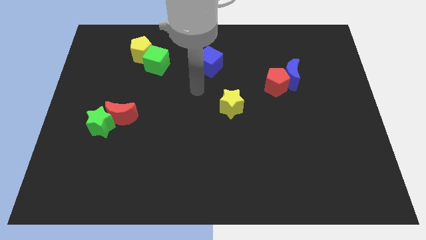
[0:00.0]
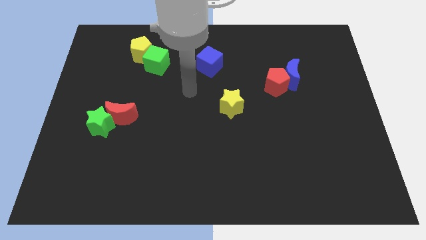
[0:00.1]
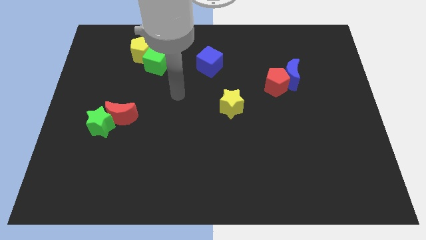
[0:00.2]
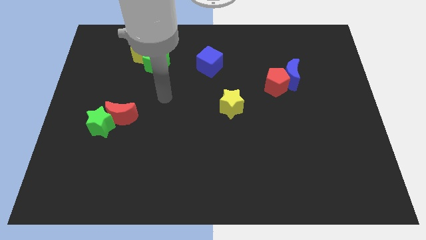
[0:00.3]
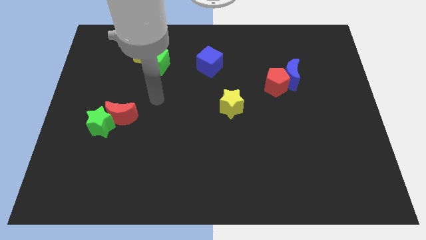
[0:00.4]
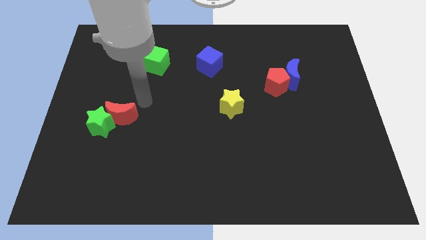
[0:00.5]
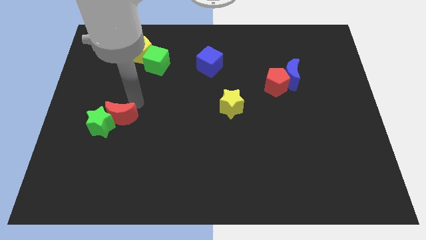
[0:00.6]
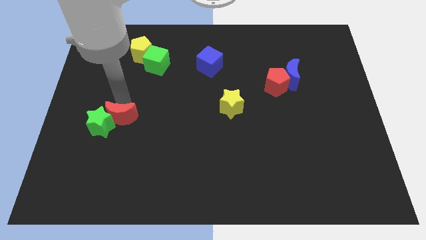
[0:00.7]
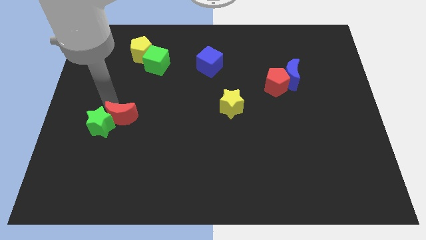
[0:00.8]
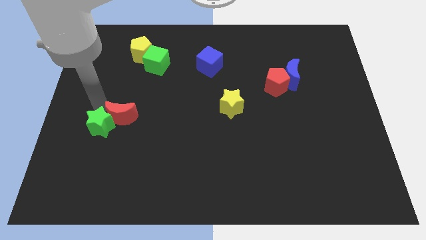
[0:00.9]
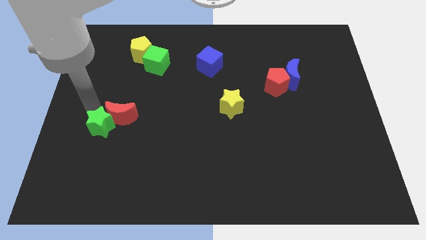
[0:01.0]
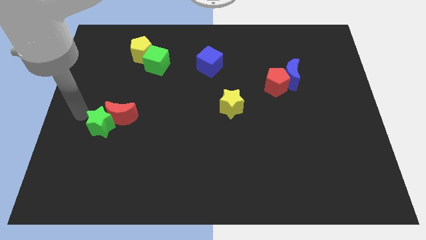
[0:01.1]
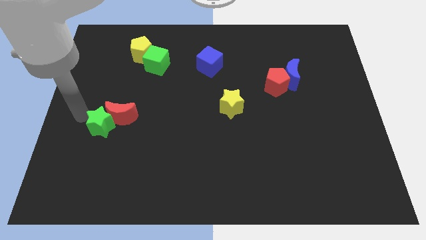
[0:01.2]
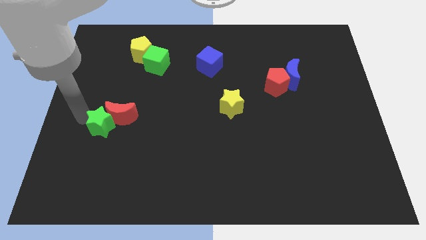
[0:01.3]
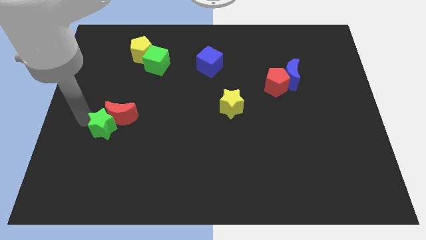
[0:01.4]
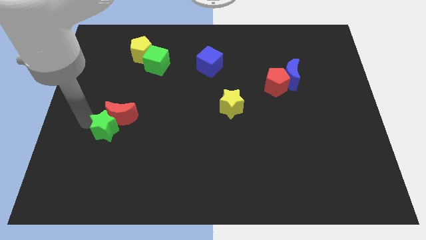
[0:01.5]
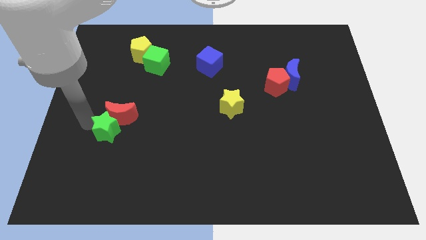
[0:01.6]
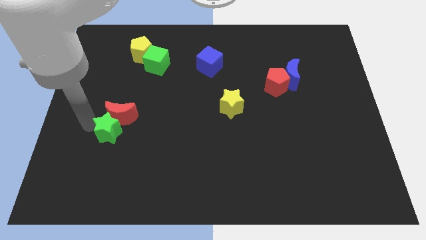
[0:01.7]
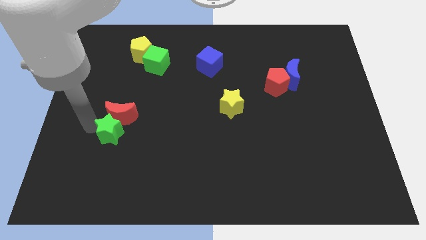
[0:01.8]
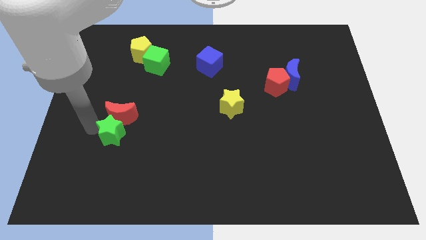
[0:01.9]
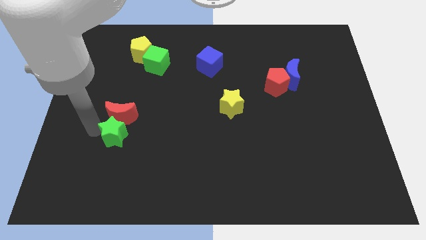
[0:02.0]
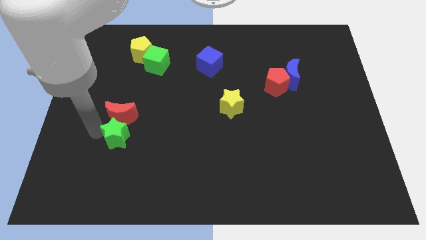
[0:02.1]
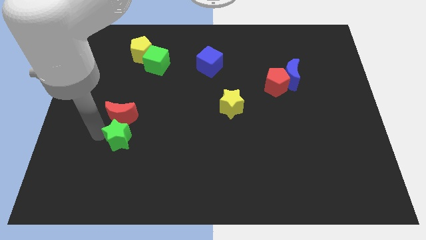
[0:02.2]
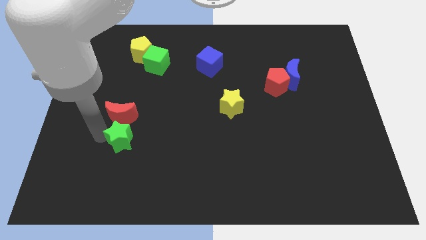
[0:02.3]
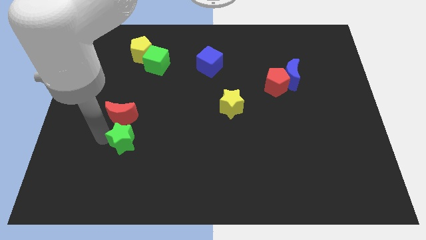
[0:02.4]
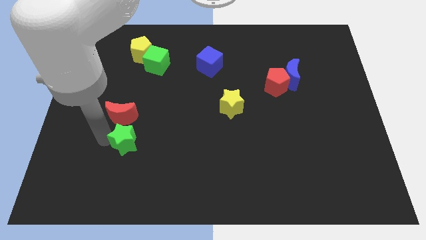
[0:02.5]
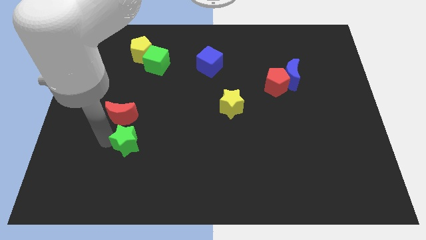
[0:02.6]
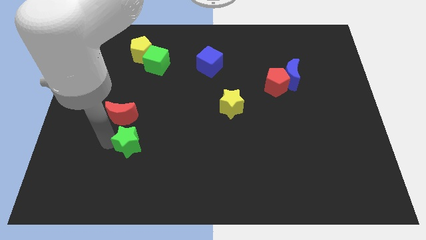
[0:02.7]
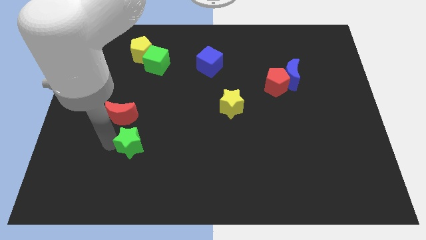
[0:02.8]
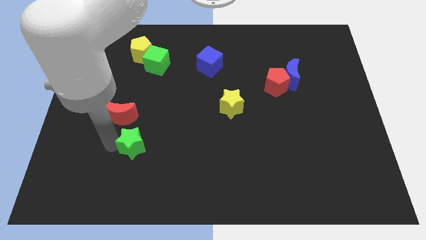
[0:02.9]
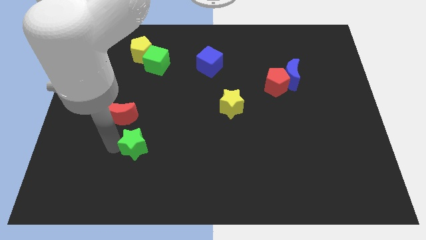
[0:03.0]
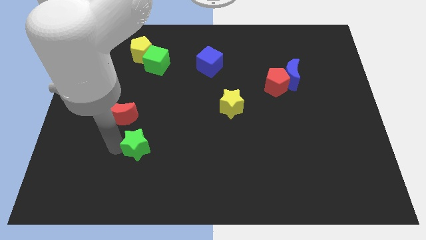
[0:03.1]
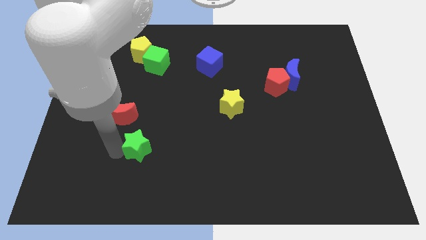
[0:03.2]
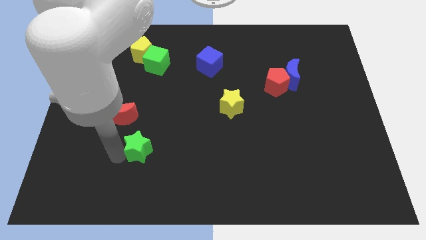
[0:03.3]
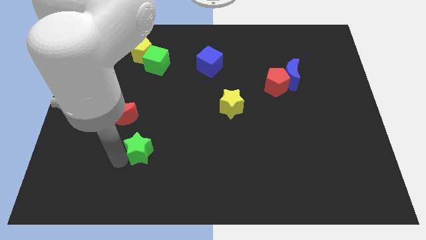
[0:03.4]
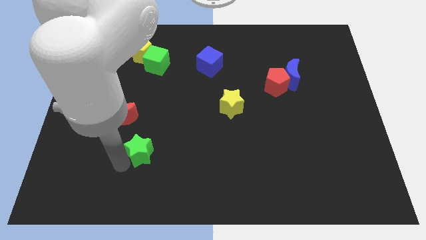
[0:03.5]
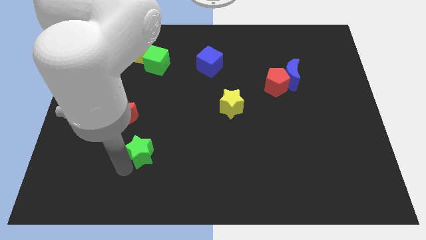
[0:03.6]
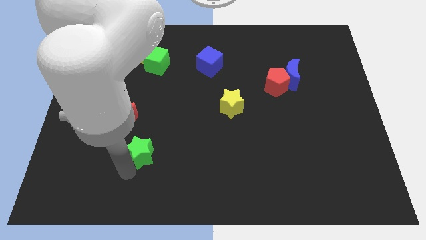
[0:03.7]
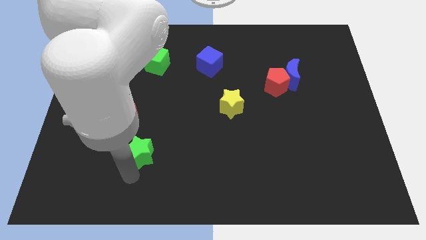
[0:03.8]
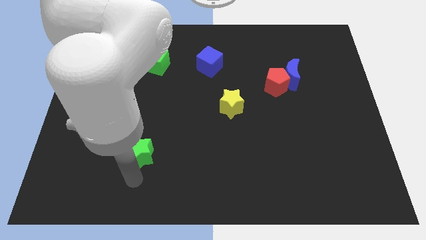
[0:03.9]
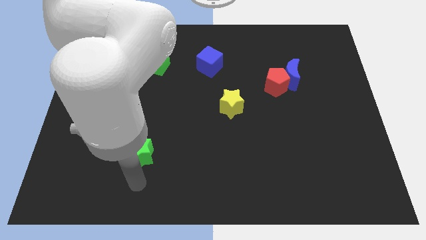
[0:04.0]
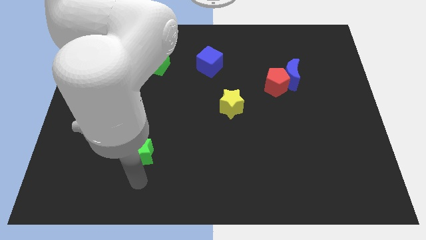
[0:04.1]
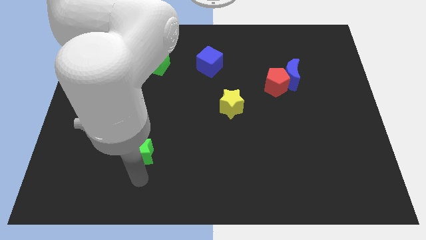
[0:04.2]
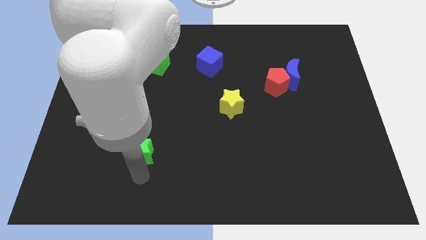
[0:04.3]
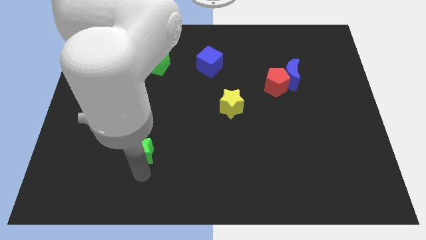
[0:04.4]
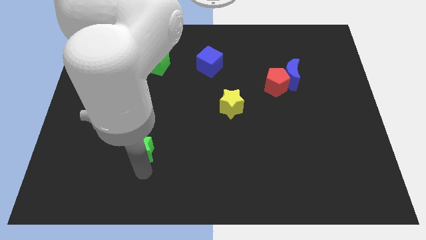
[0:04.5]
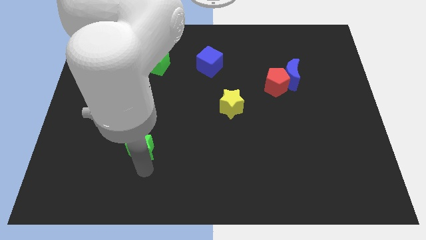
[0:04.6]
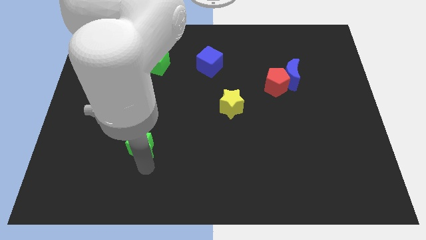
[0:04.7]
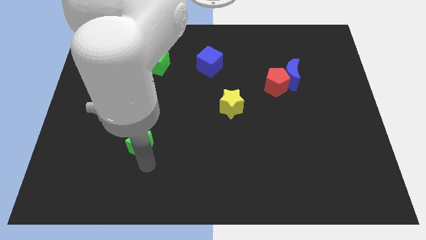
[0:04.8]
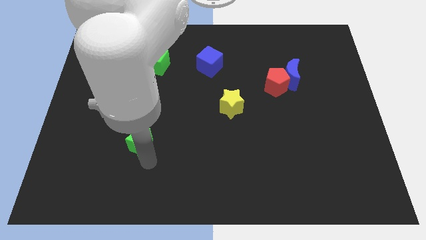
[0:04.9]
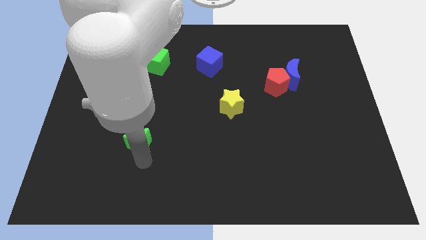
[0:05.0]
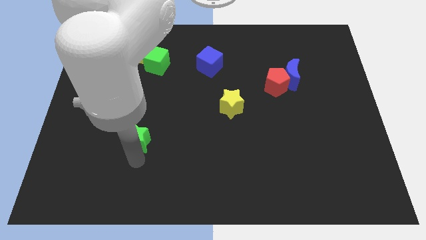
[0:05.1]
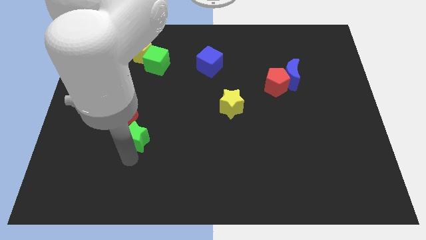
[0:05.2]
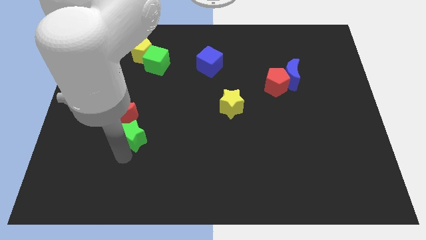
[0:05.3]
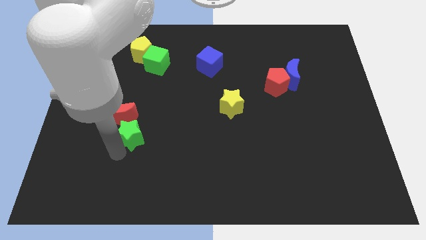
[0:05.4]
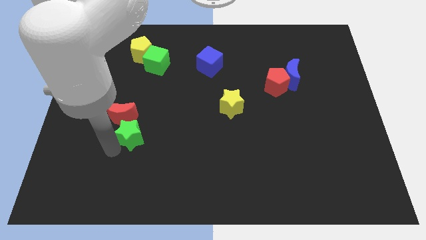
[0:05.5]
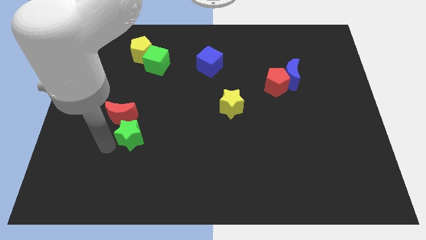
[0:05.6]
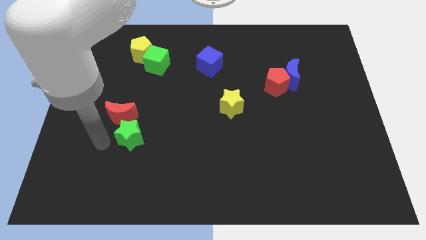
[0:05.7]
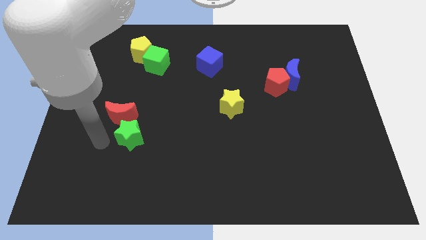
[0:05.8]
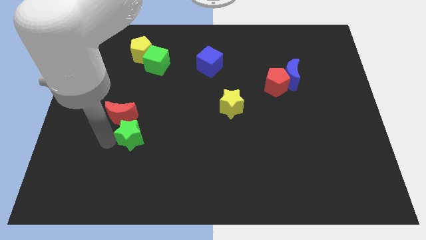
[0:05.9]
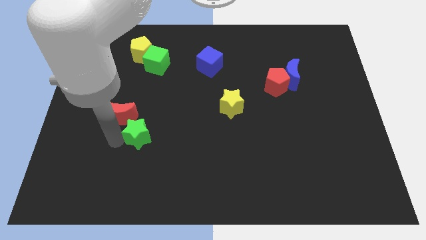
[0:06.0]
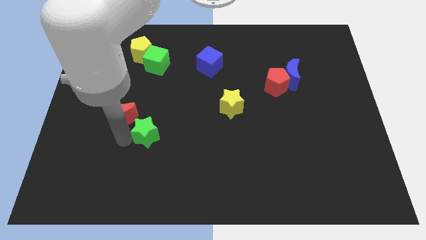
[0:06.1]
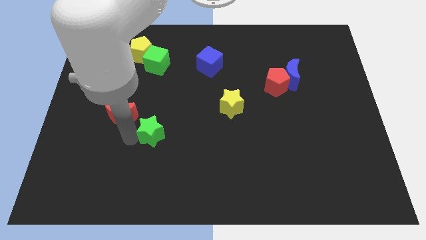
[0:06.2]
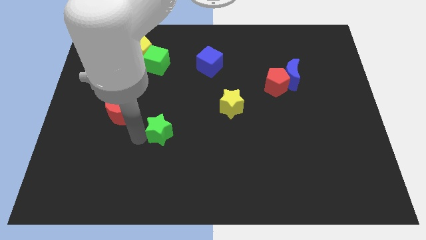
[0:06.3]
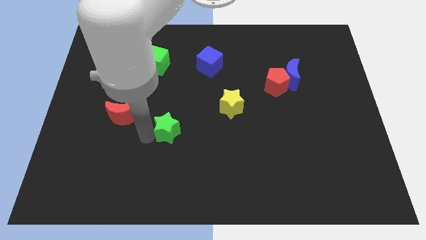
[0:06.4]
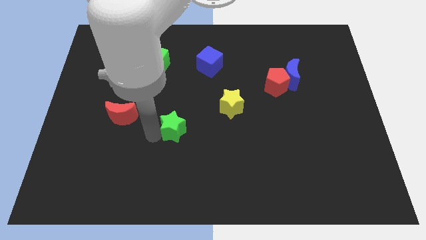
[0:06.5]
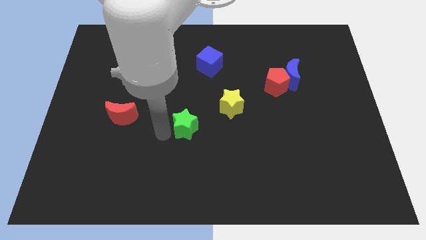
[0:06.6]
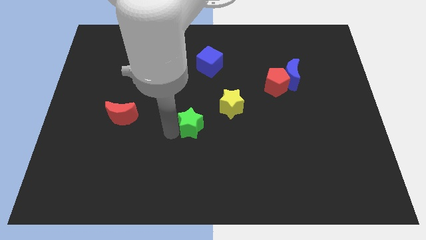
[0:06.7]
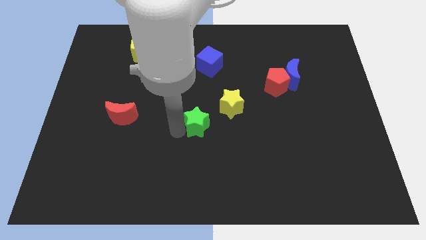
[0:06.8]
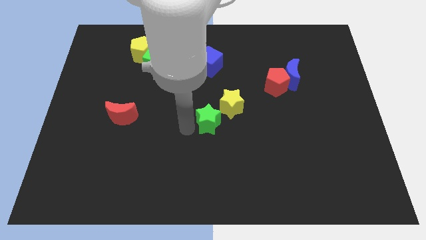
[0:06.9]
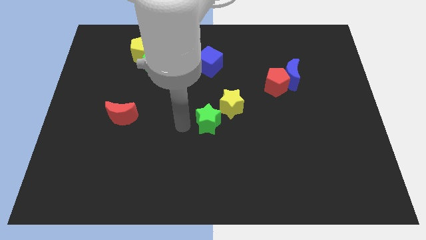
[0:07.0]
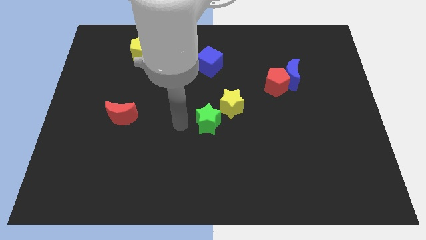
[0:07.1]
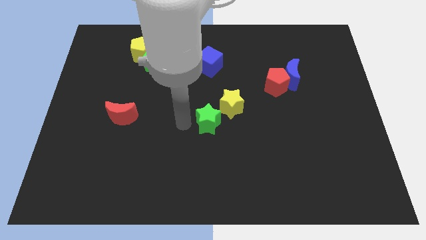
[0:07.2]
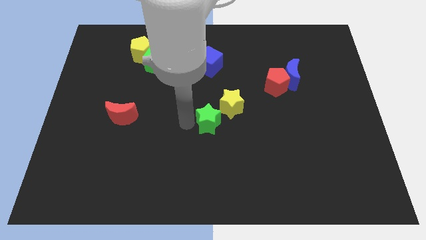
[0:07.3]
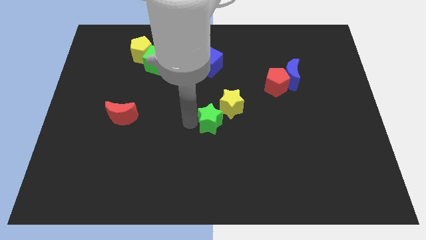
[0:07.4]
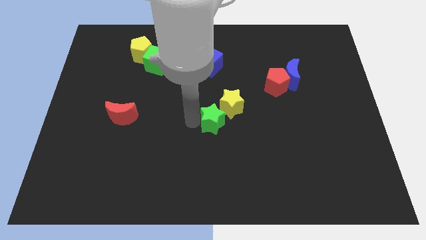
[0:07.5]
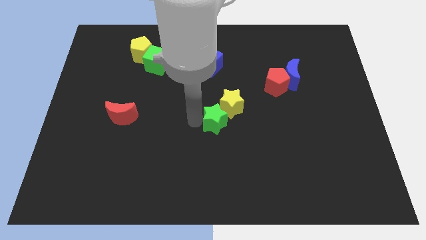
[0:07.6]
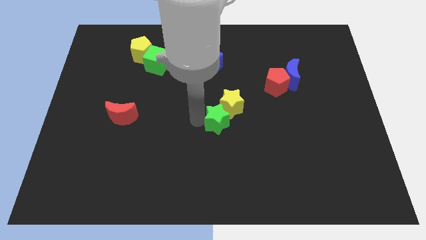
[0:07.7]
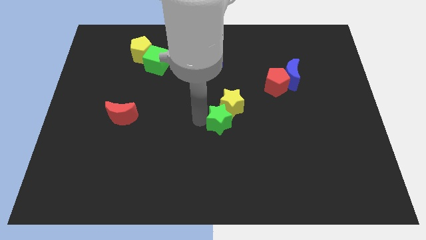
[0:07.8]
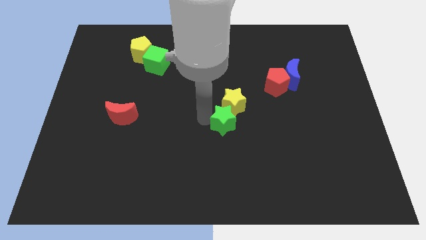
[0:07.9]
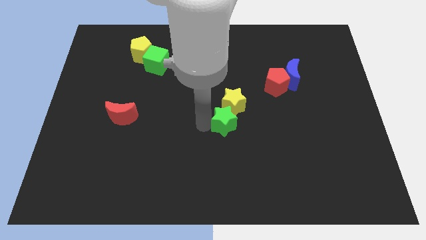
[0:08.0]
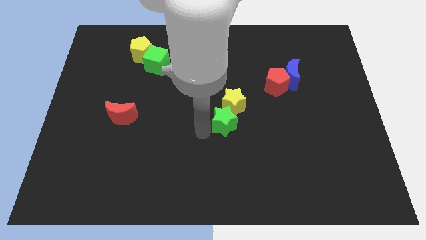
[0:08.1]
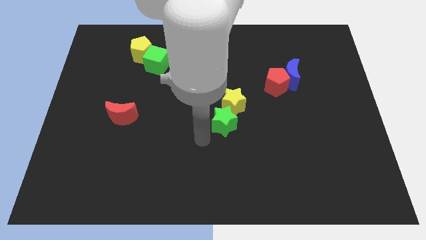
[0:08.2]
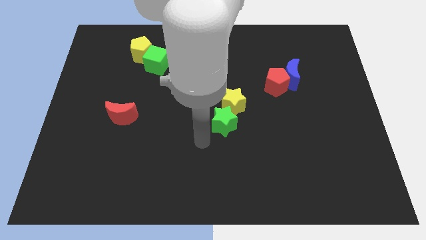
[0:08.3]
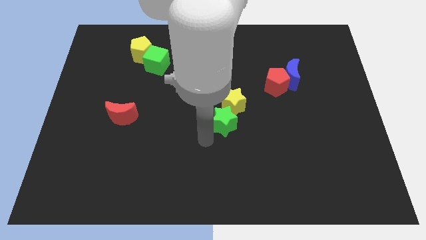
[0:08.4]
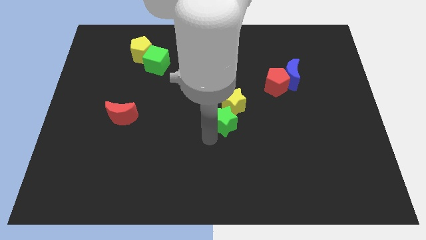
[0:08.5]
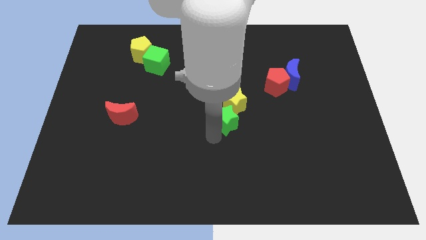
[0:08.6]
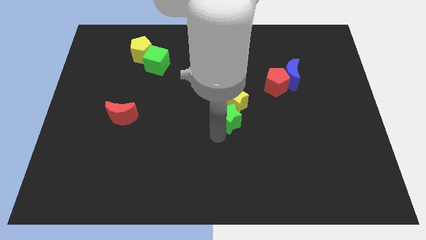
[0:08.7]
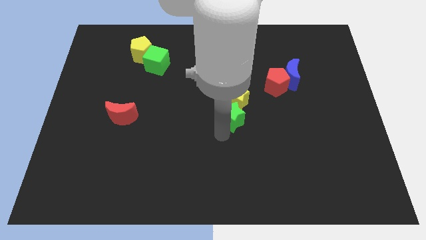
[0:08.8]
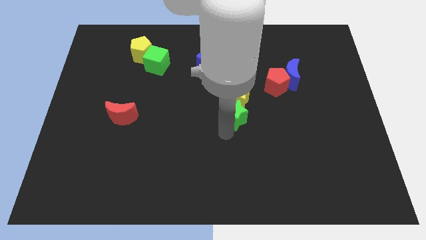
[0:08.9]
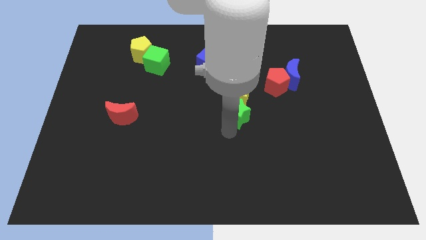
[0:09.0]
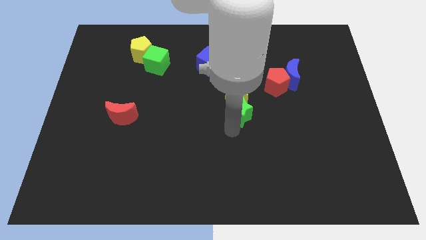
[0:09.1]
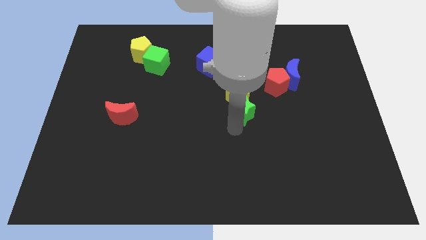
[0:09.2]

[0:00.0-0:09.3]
move the green star diagonally down and to the left of the red pentagon
